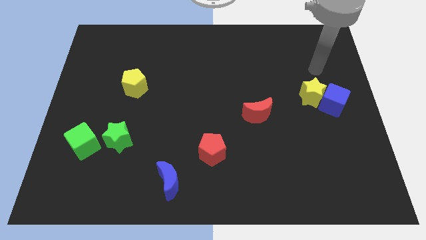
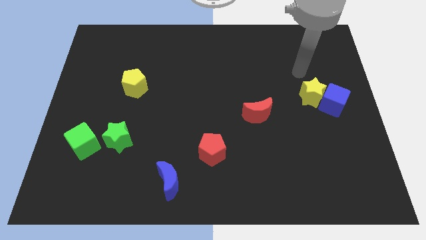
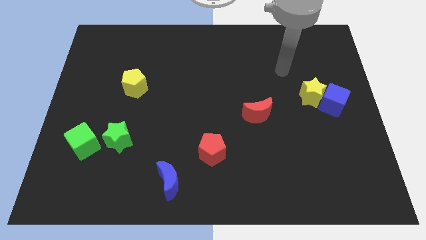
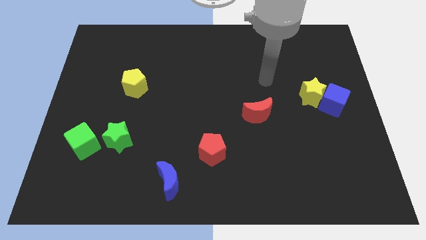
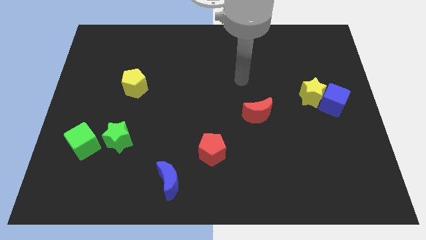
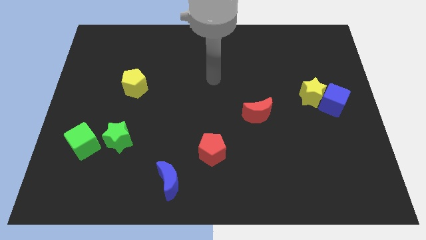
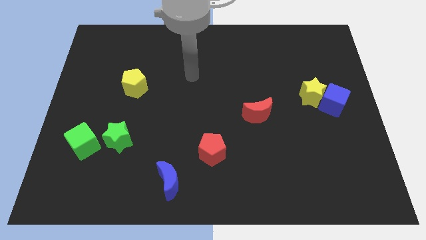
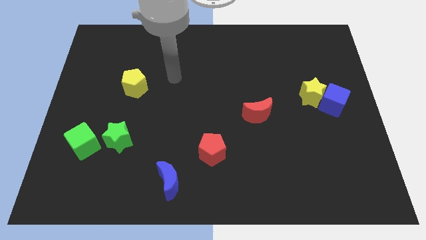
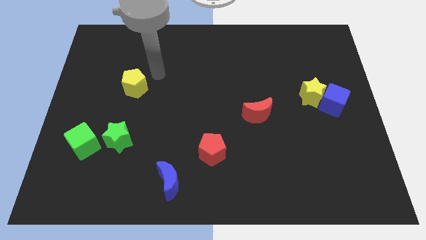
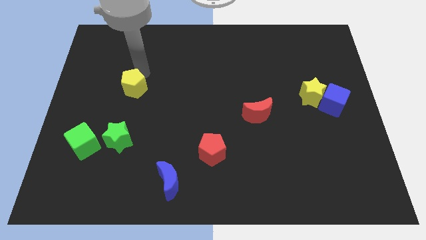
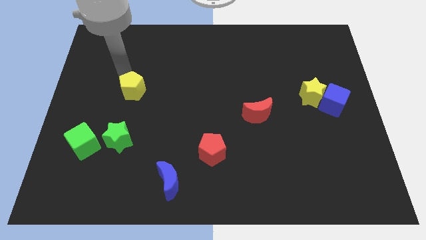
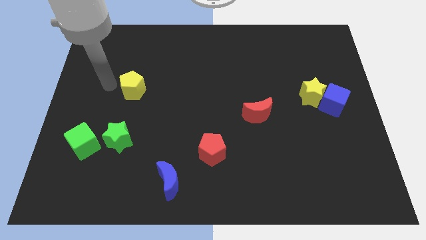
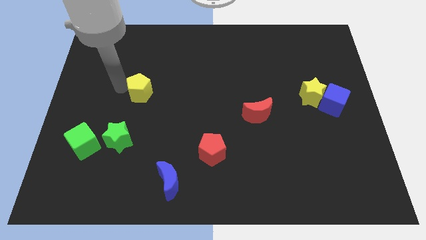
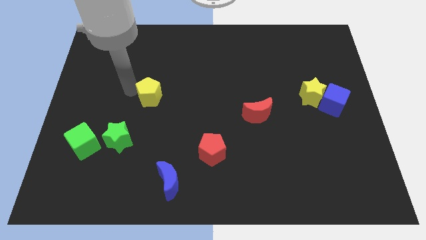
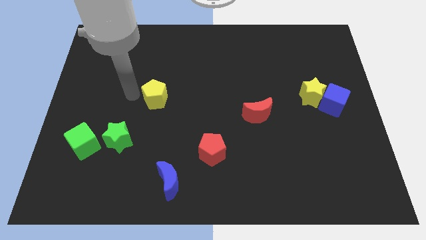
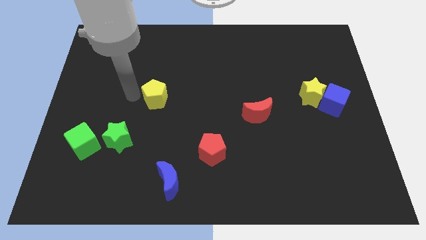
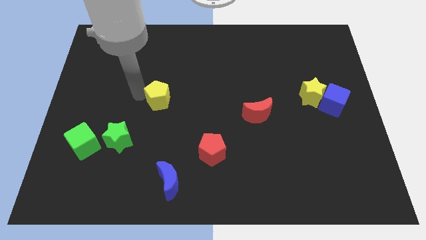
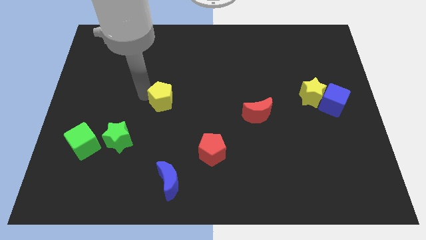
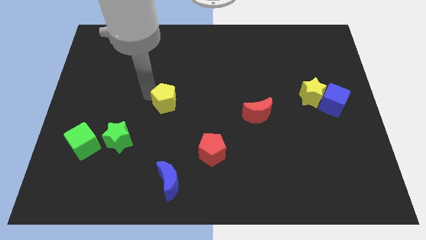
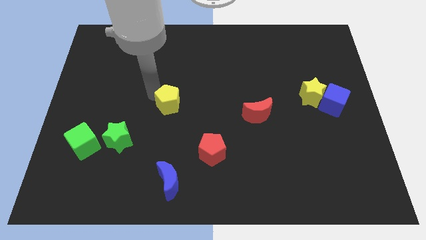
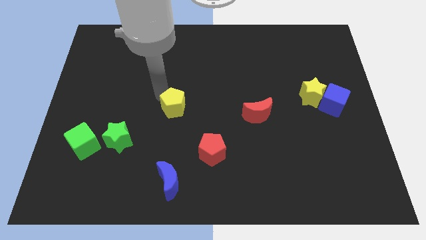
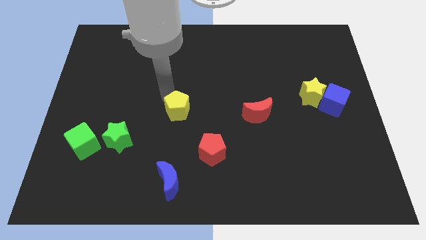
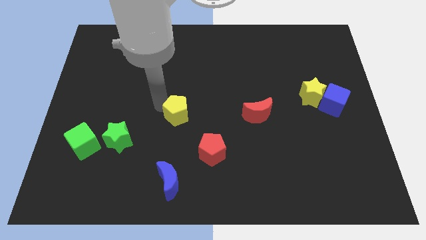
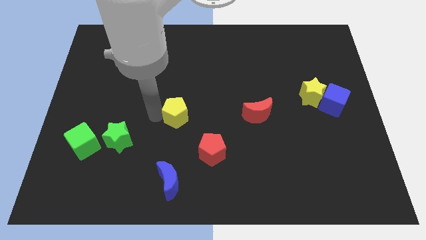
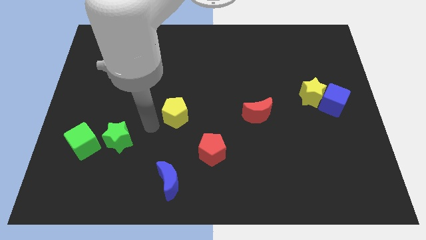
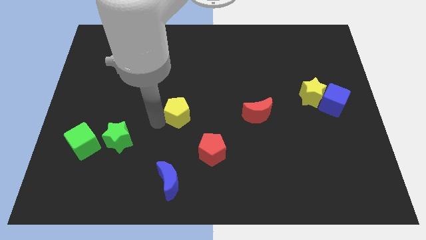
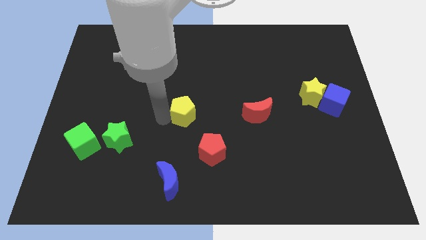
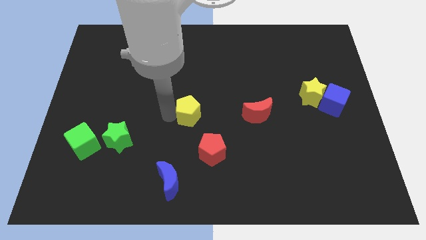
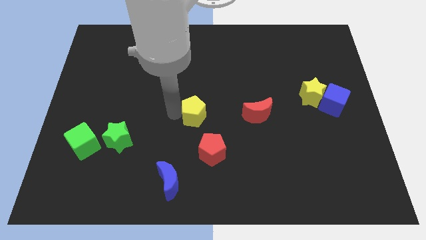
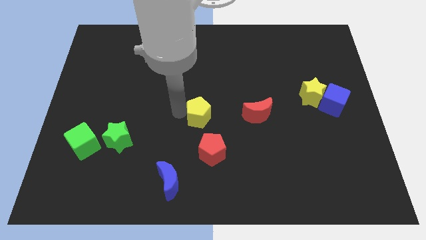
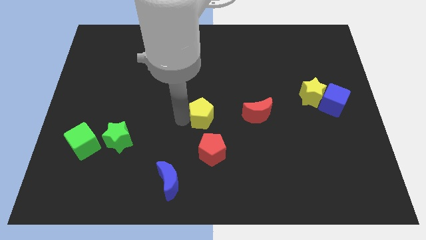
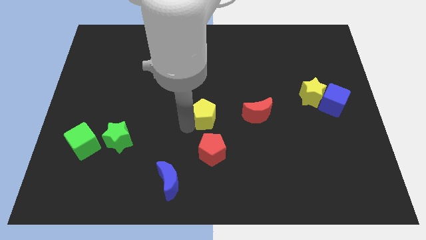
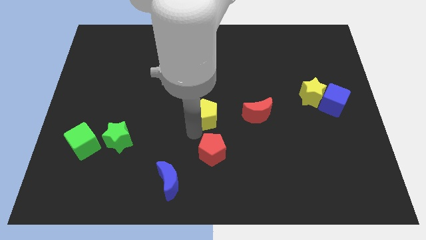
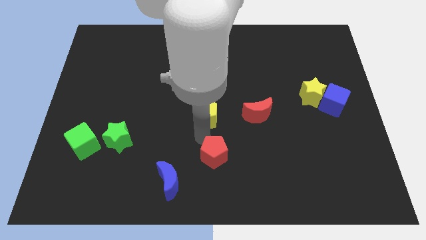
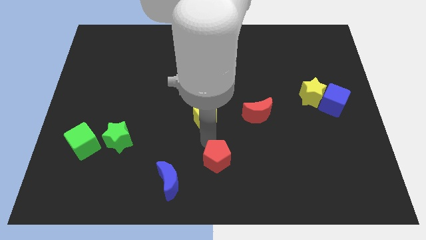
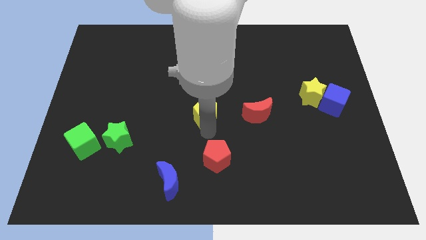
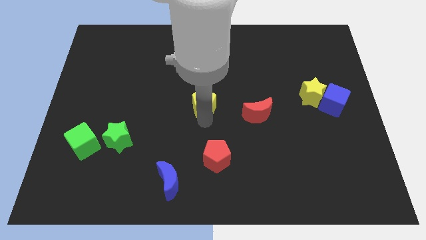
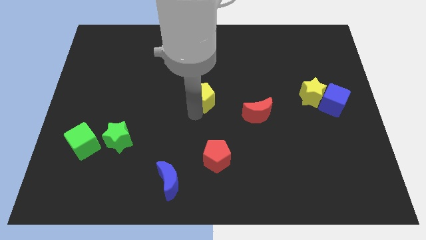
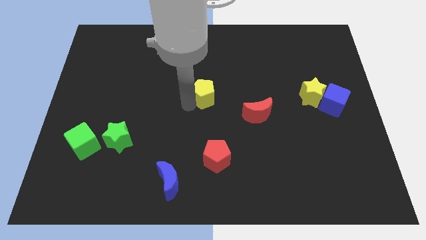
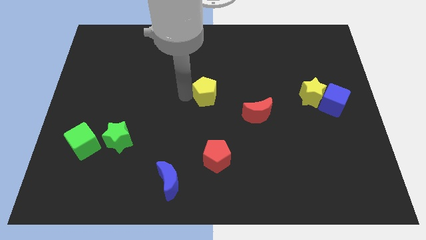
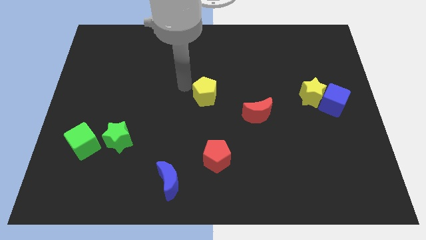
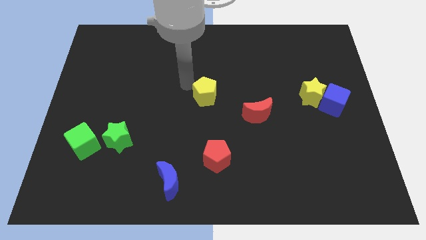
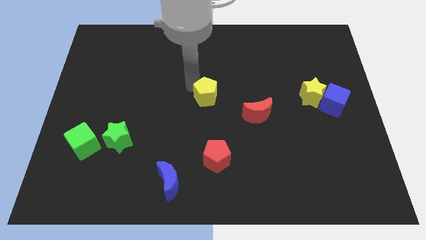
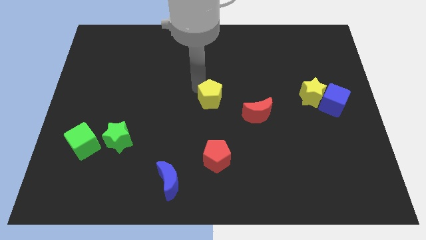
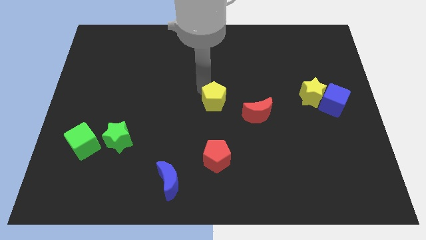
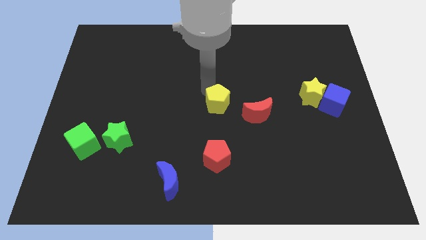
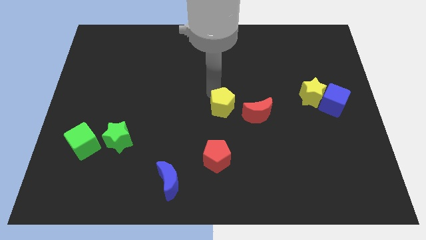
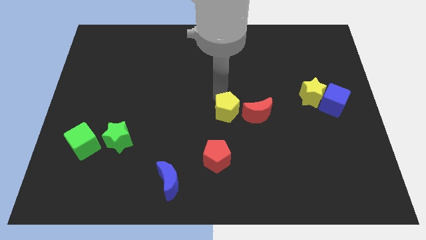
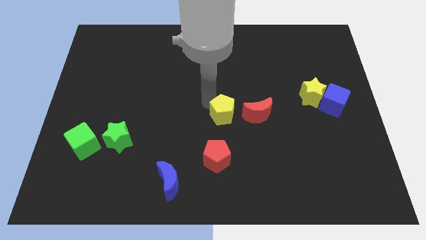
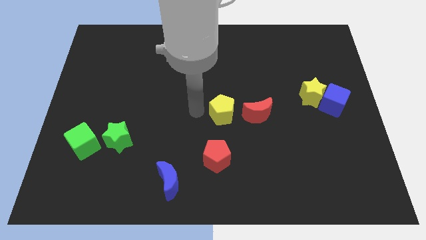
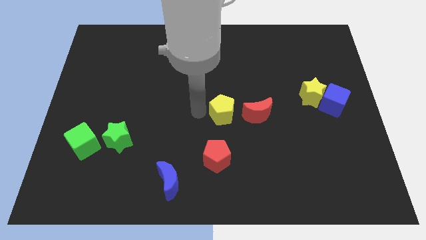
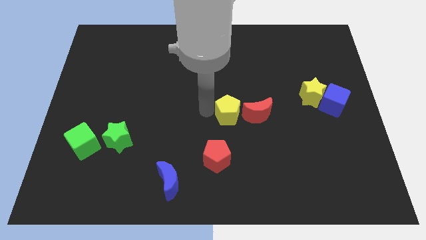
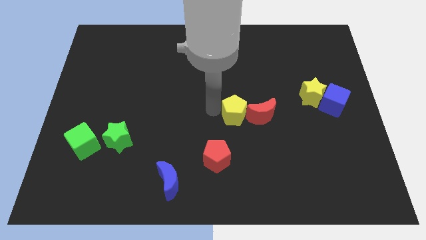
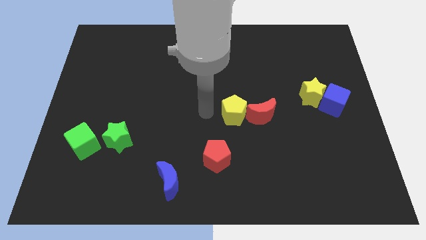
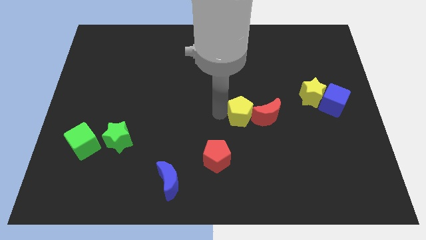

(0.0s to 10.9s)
put the yellow pentagon next to the red moon
